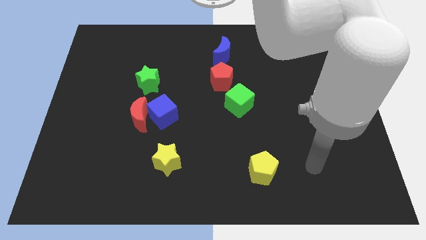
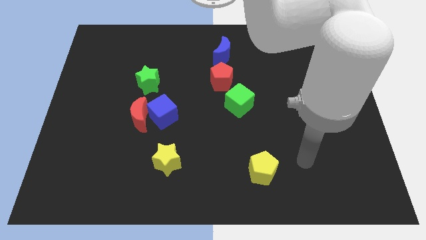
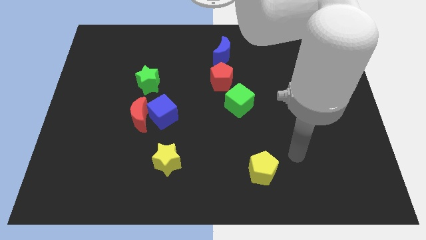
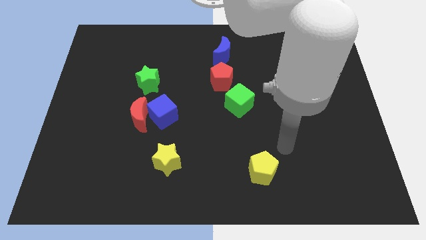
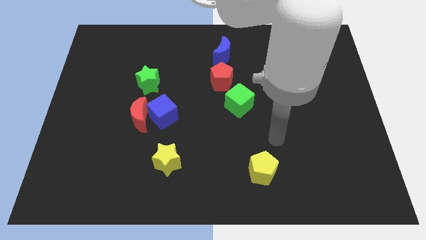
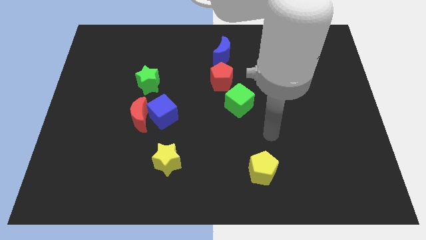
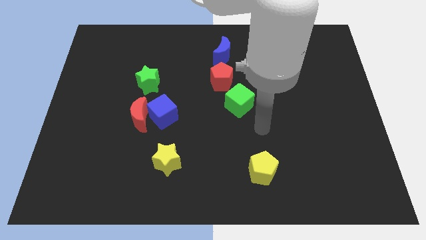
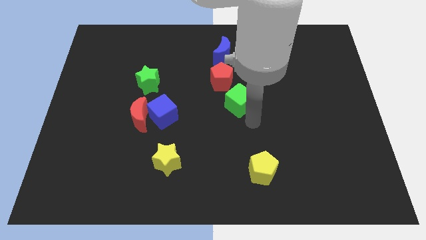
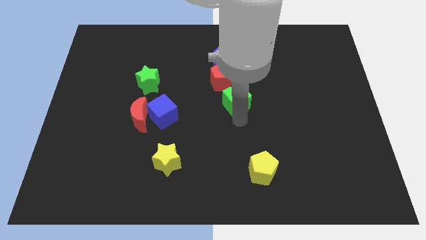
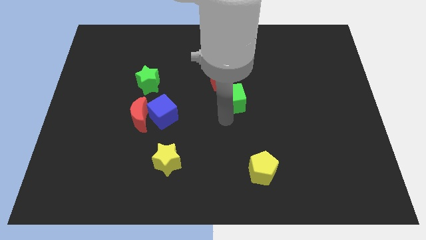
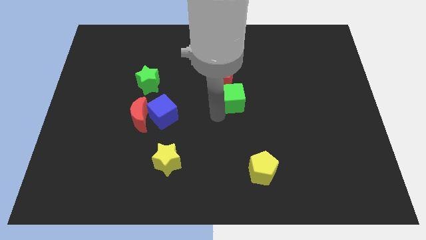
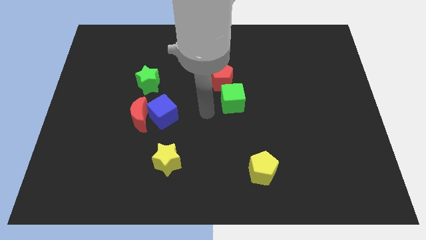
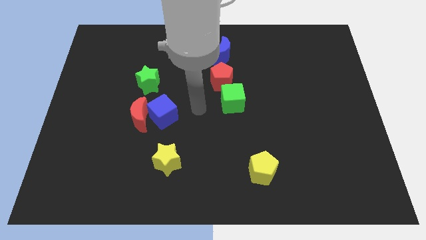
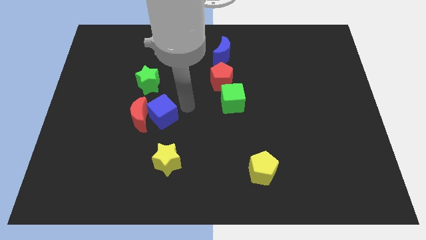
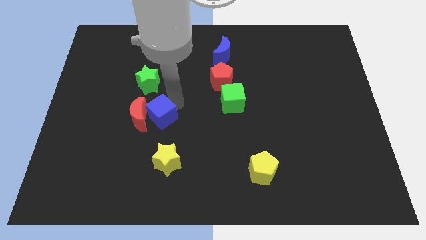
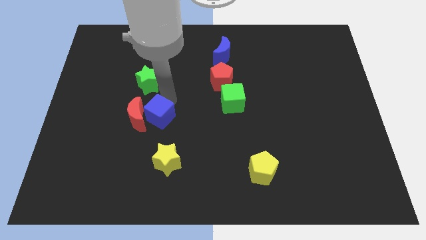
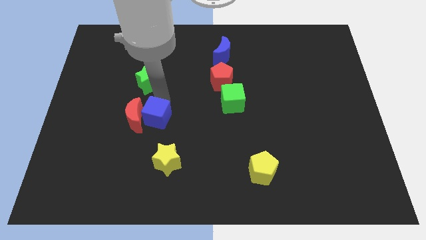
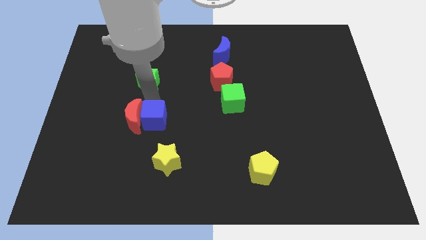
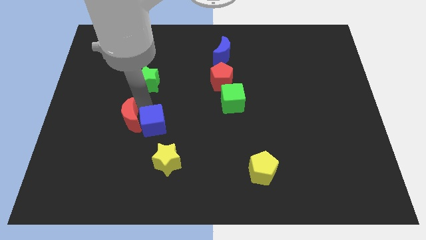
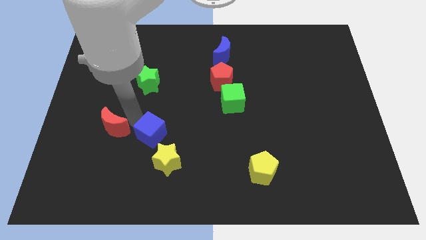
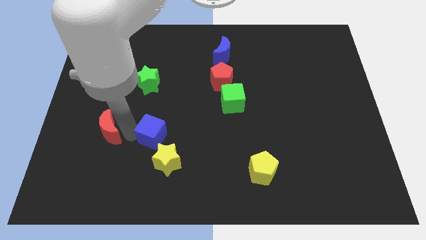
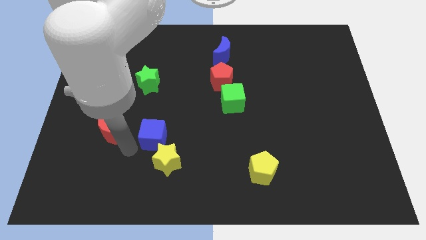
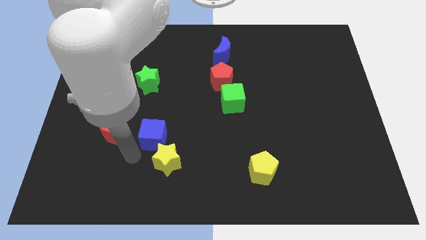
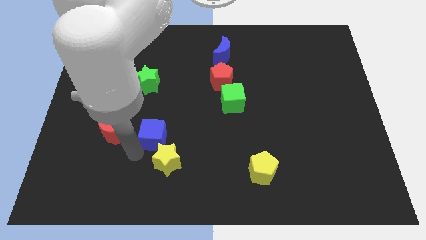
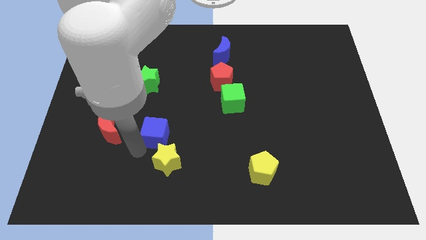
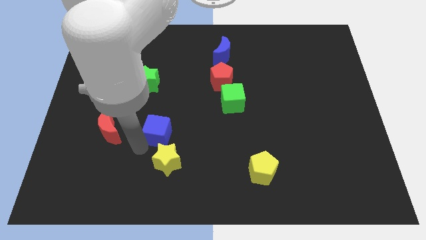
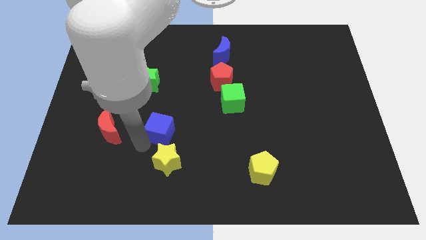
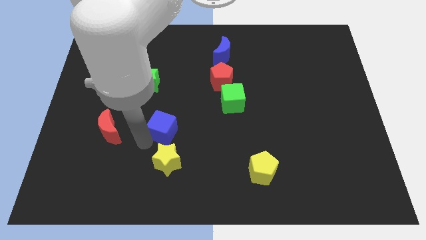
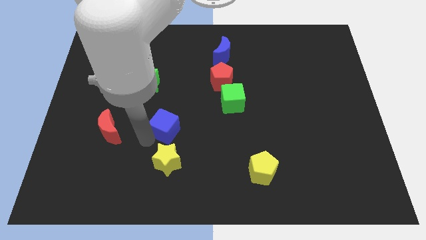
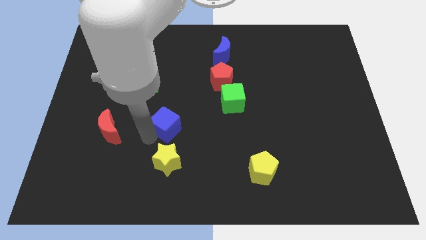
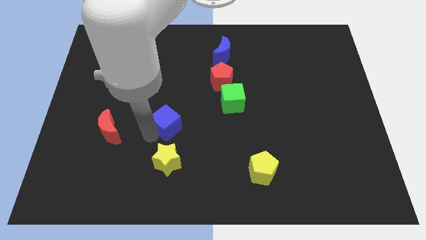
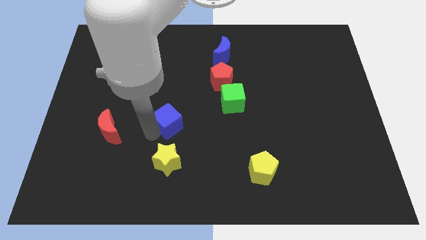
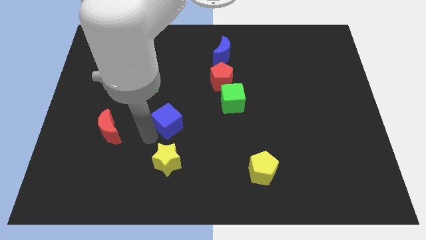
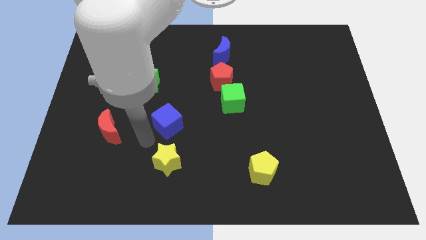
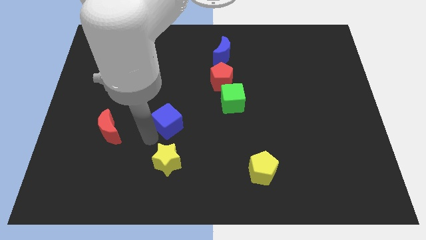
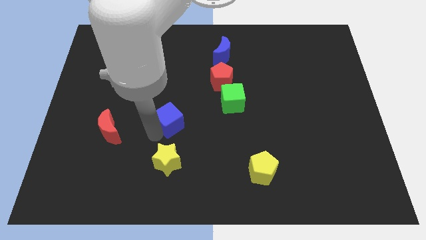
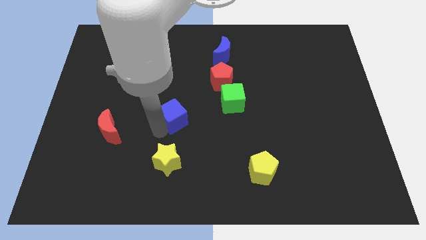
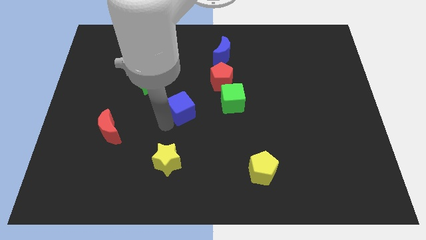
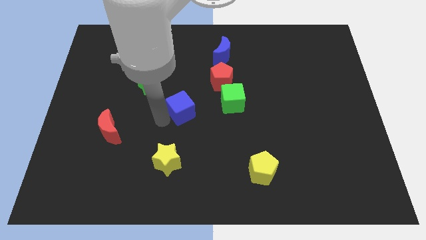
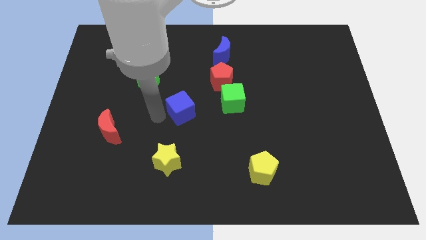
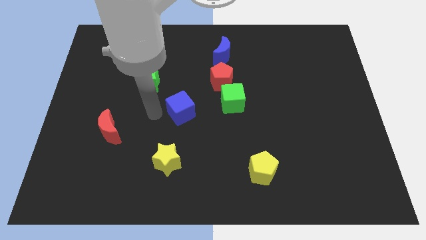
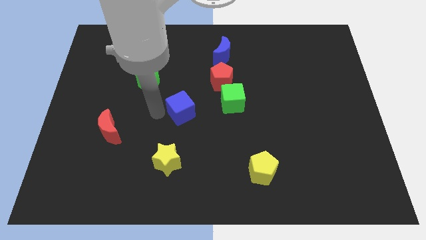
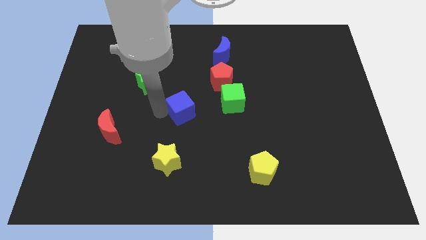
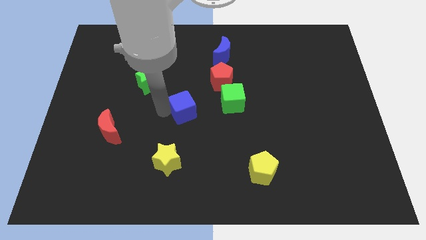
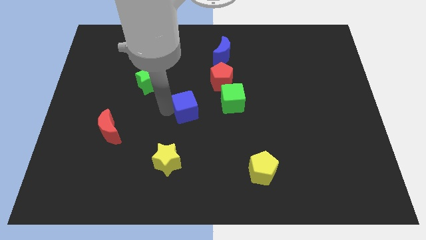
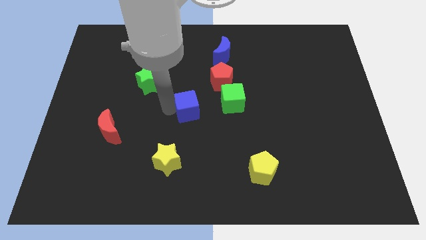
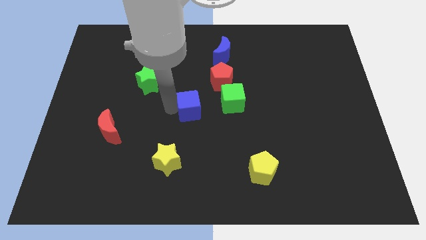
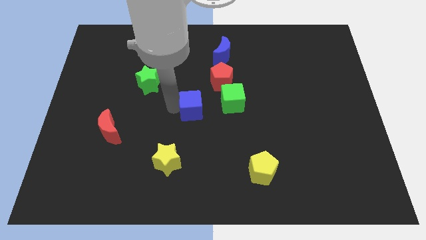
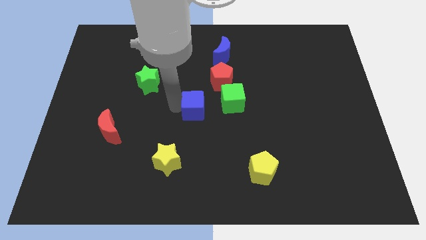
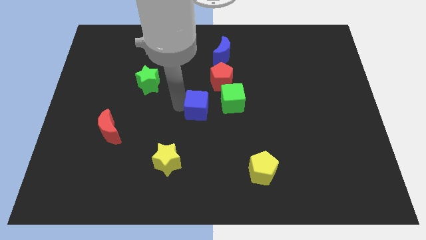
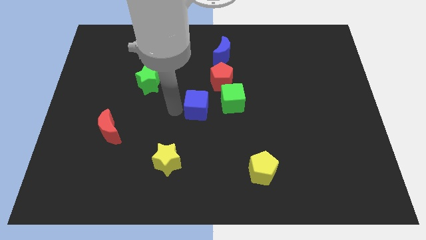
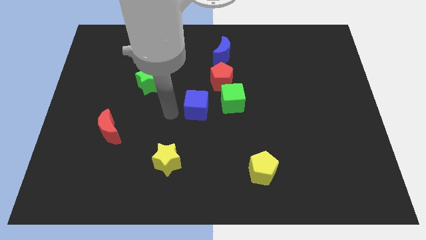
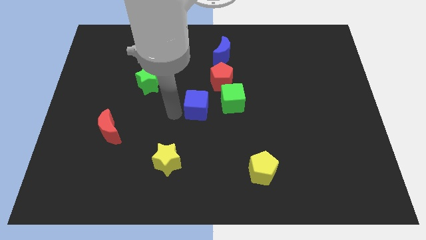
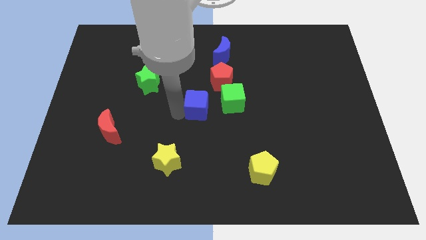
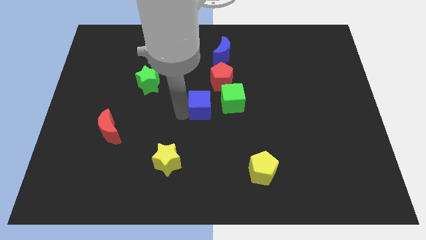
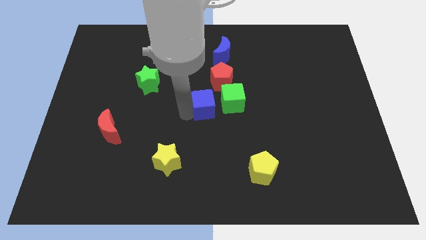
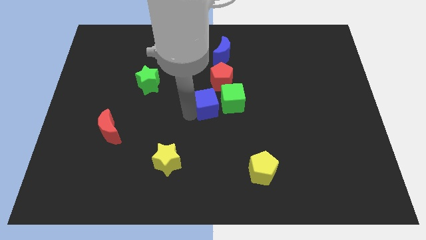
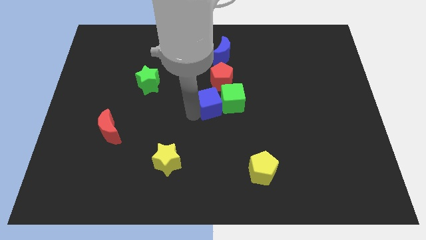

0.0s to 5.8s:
slide the blue cube towards the green cube
